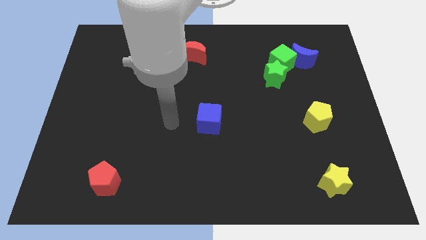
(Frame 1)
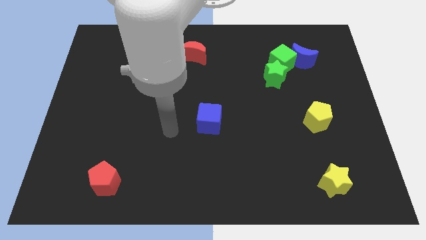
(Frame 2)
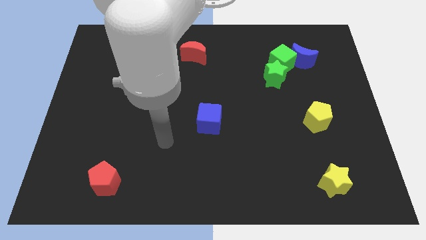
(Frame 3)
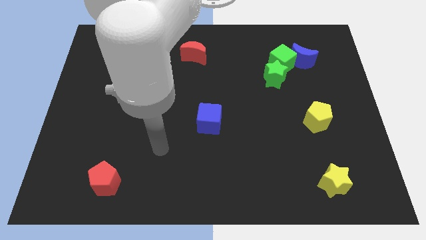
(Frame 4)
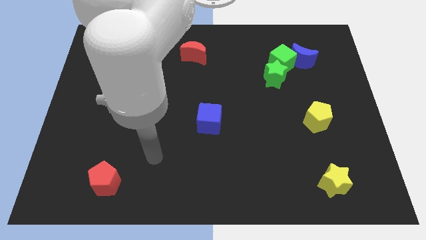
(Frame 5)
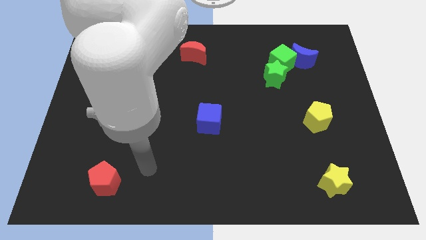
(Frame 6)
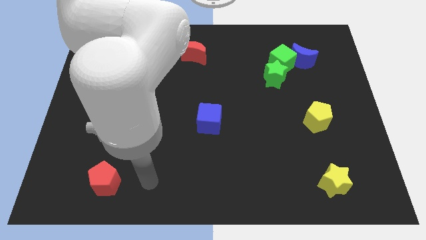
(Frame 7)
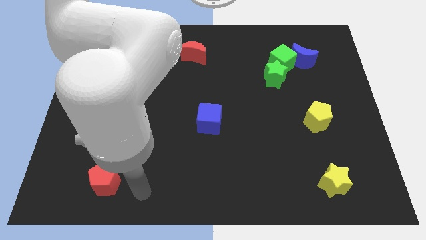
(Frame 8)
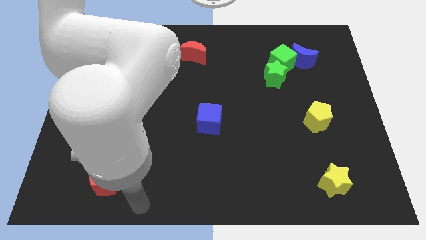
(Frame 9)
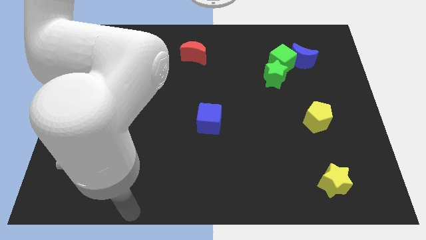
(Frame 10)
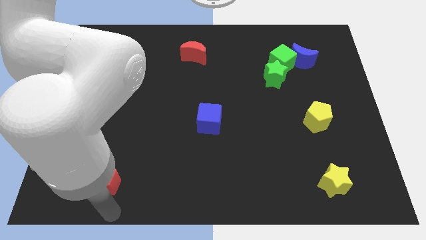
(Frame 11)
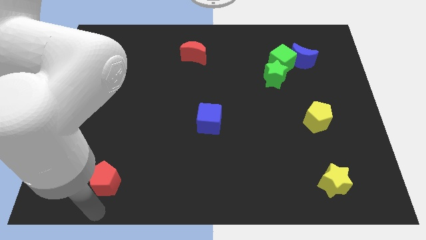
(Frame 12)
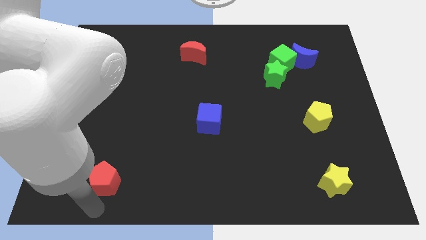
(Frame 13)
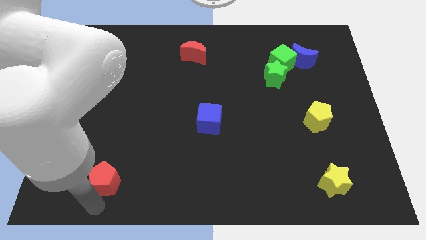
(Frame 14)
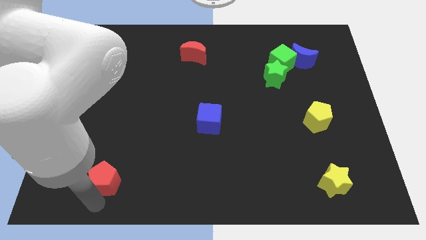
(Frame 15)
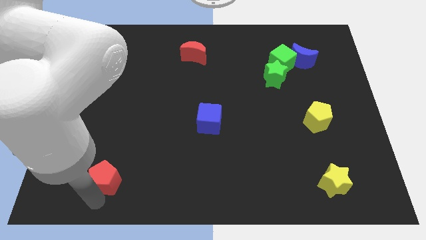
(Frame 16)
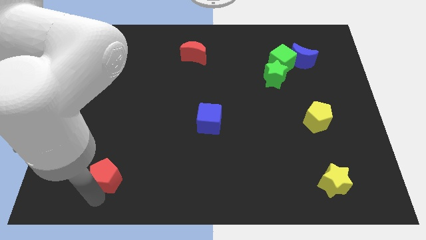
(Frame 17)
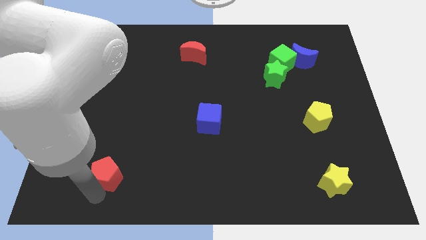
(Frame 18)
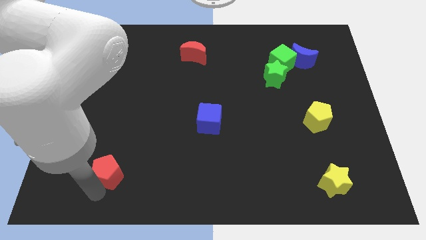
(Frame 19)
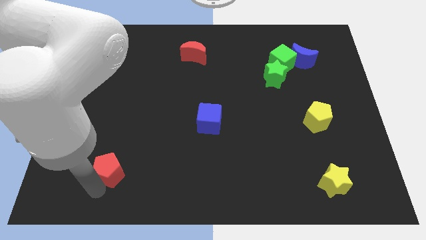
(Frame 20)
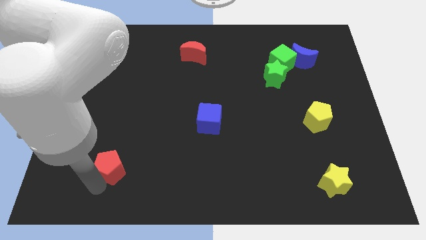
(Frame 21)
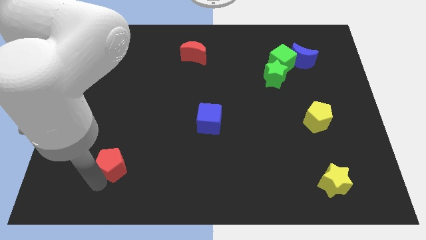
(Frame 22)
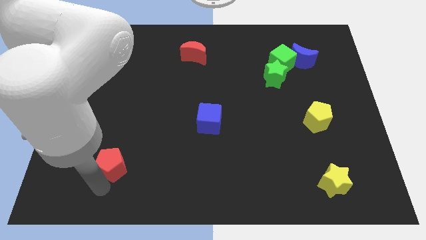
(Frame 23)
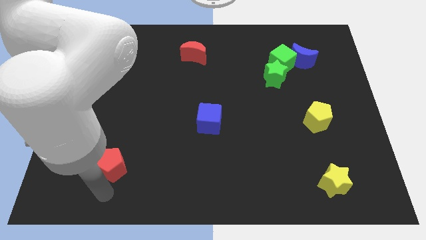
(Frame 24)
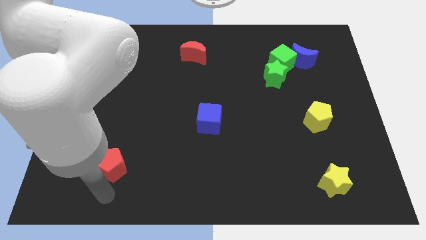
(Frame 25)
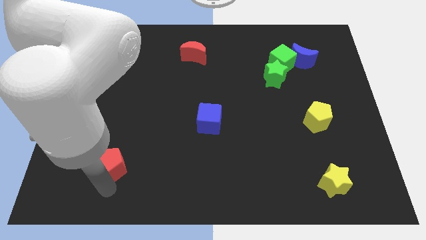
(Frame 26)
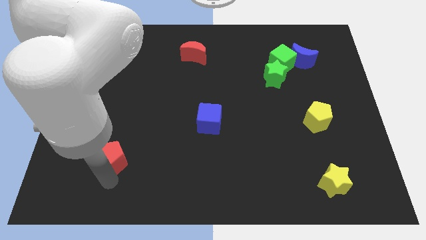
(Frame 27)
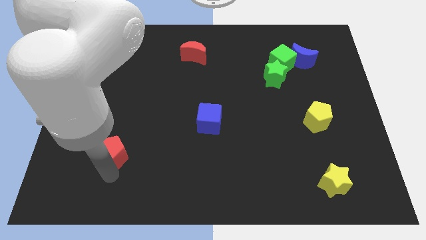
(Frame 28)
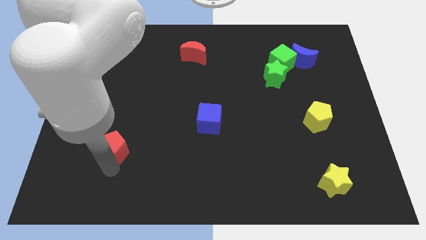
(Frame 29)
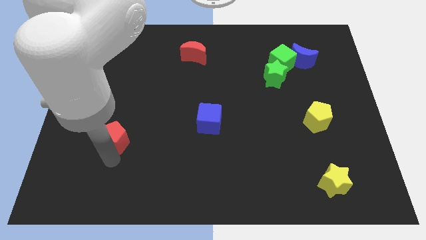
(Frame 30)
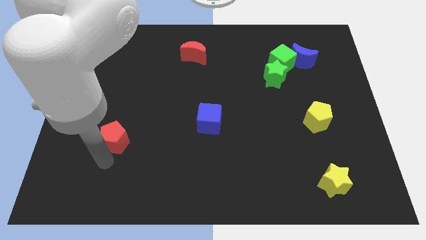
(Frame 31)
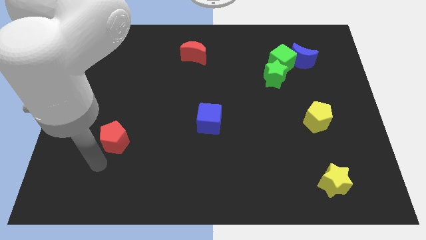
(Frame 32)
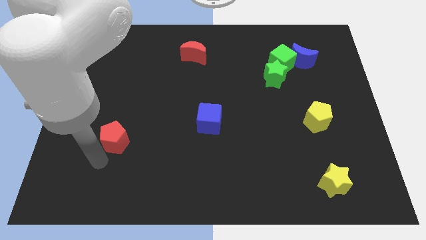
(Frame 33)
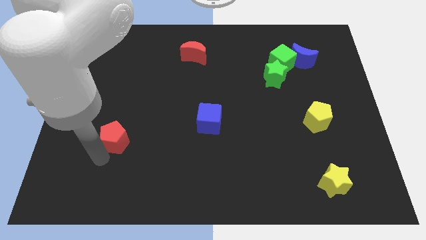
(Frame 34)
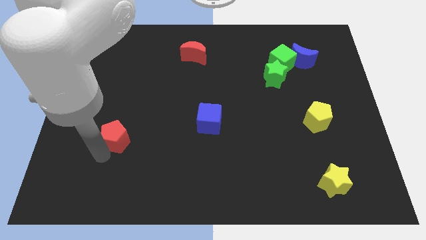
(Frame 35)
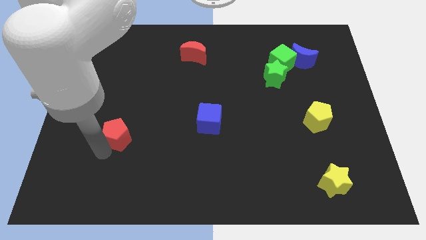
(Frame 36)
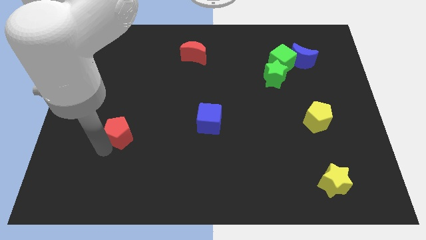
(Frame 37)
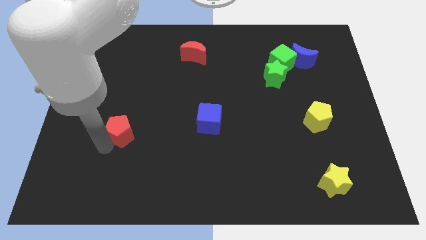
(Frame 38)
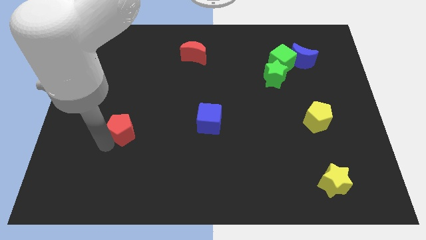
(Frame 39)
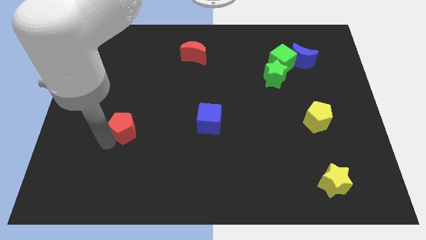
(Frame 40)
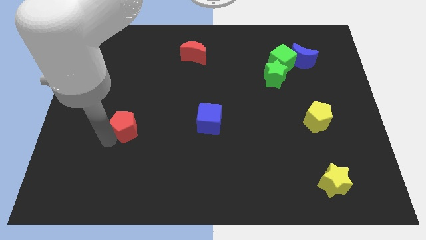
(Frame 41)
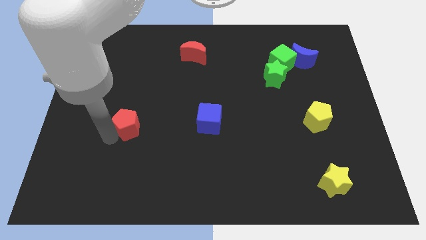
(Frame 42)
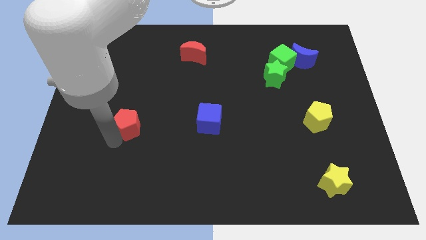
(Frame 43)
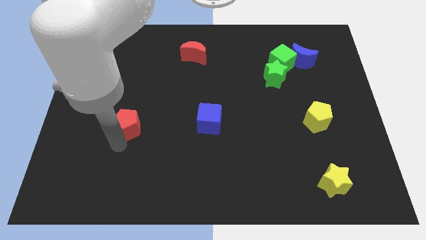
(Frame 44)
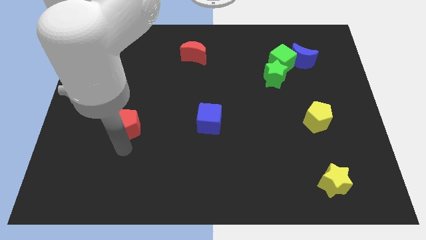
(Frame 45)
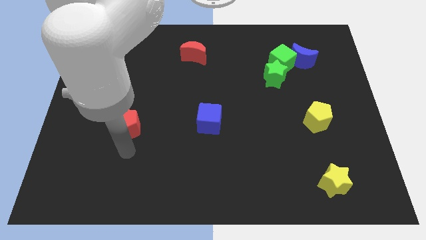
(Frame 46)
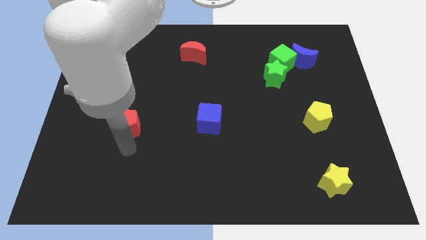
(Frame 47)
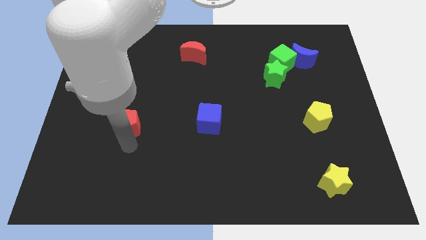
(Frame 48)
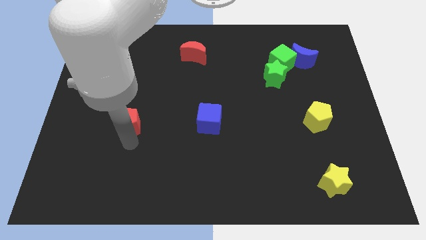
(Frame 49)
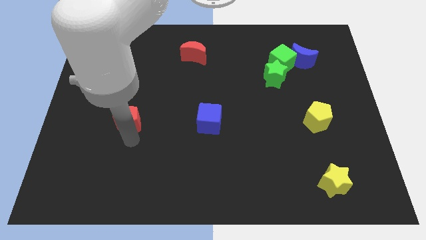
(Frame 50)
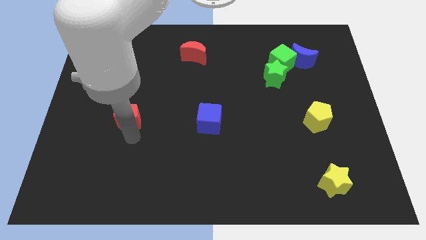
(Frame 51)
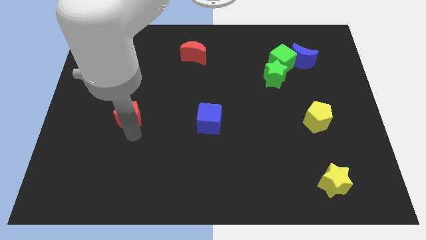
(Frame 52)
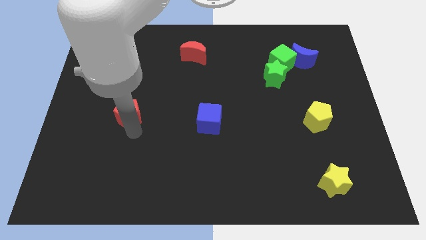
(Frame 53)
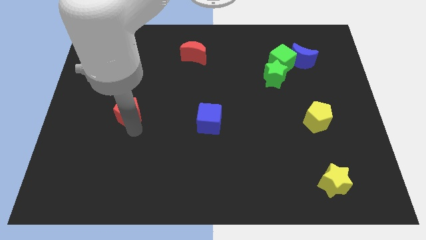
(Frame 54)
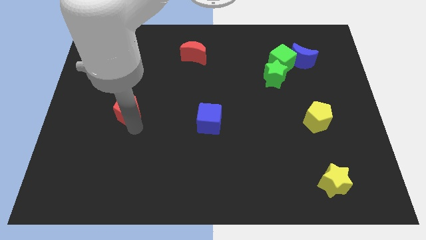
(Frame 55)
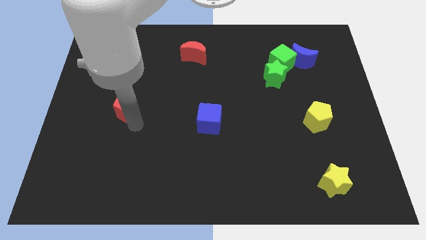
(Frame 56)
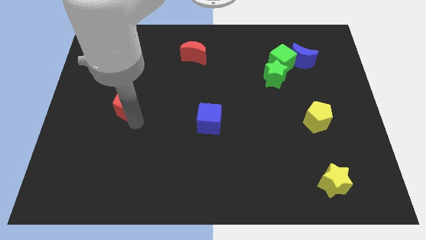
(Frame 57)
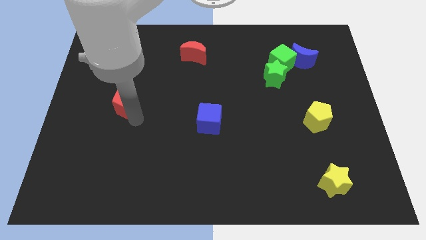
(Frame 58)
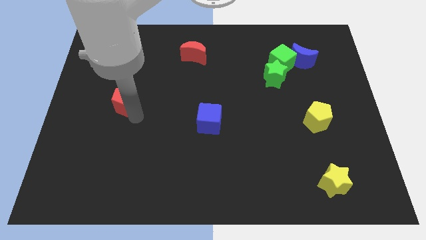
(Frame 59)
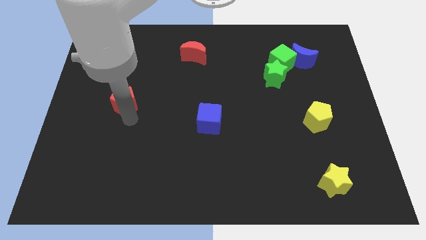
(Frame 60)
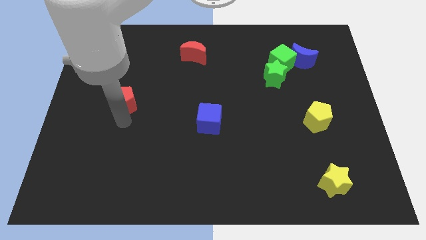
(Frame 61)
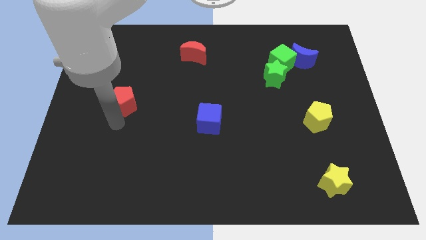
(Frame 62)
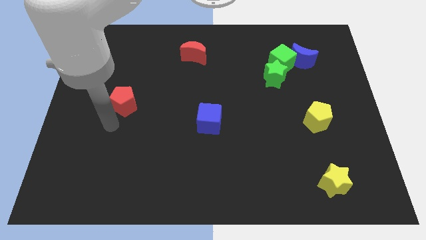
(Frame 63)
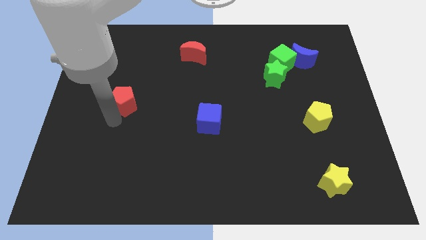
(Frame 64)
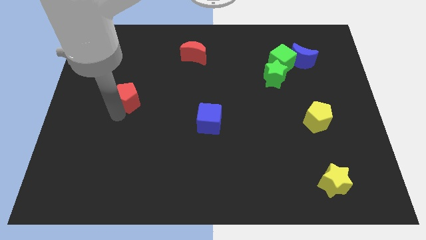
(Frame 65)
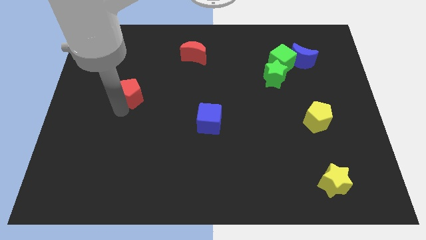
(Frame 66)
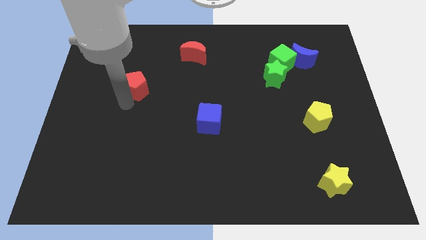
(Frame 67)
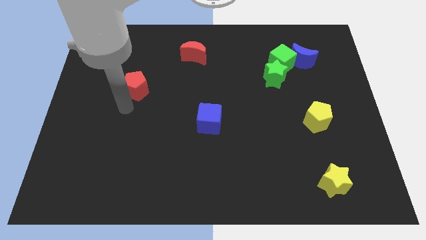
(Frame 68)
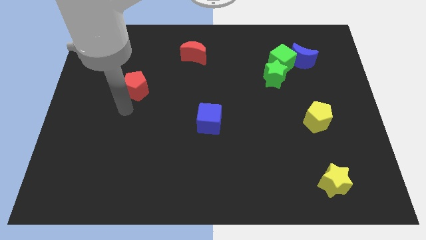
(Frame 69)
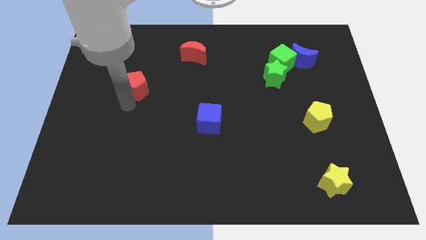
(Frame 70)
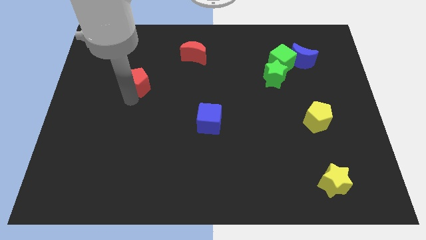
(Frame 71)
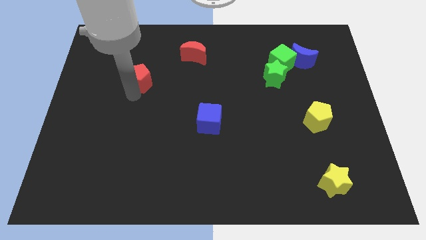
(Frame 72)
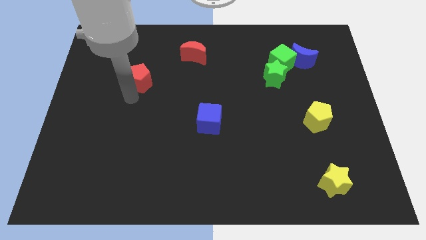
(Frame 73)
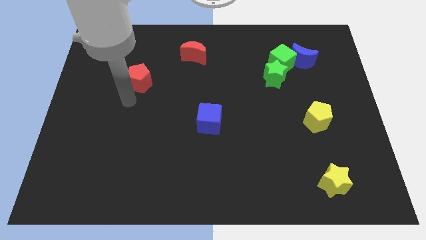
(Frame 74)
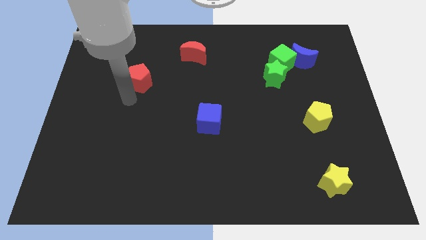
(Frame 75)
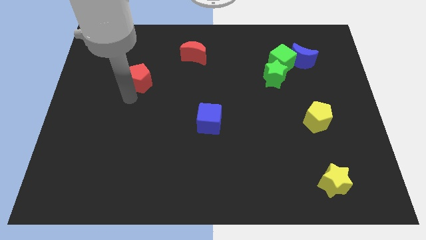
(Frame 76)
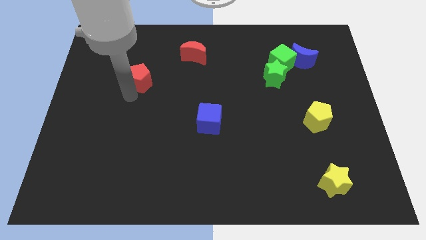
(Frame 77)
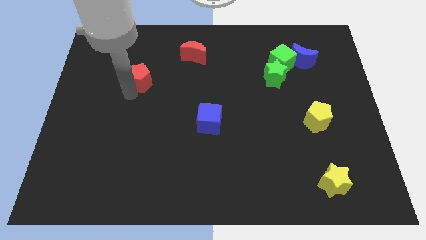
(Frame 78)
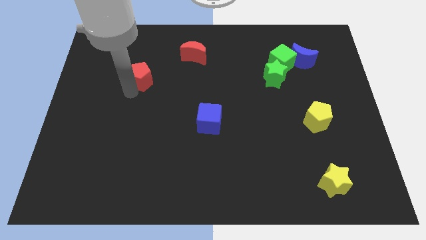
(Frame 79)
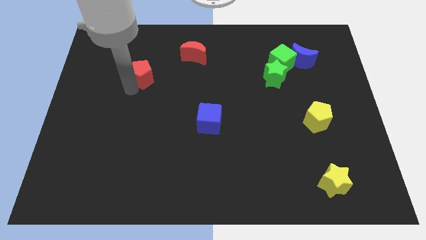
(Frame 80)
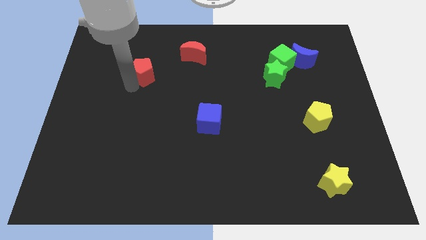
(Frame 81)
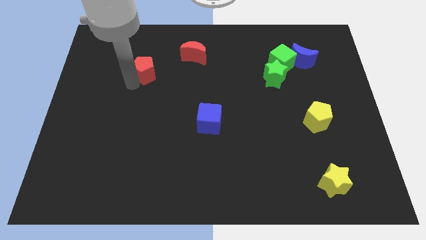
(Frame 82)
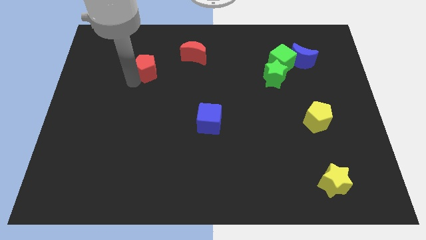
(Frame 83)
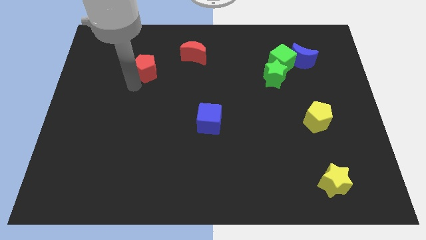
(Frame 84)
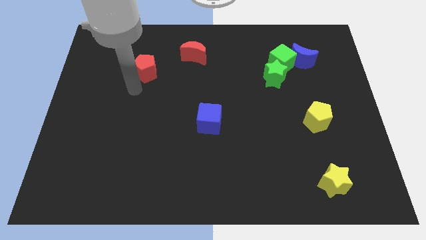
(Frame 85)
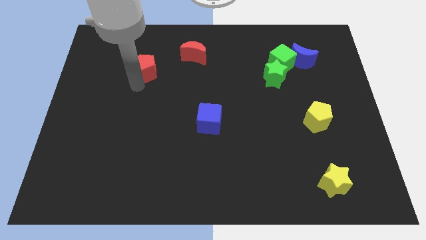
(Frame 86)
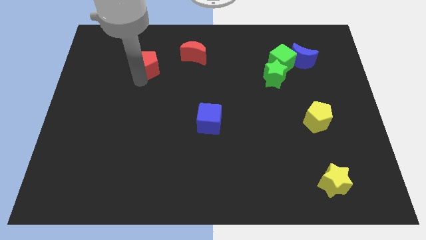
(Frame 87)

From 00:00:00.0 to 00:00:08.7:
push the red pentagon left of the red moon
